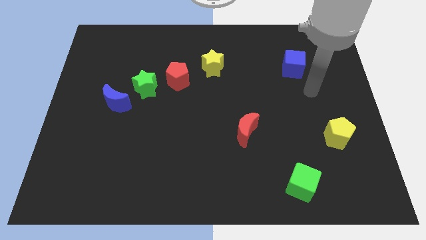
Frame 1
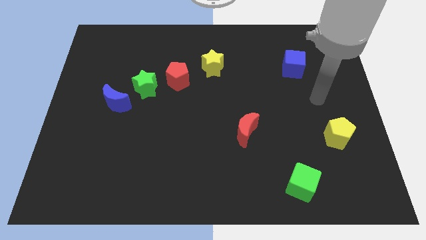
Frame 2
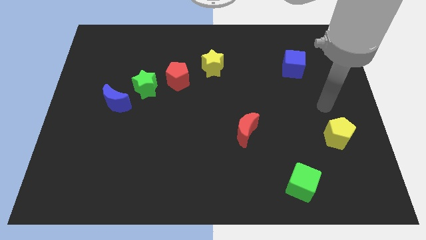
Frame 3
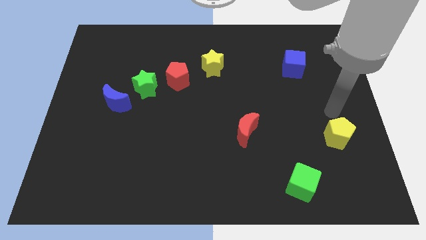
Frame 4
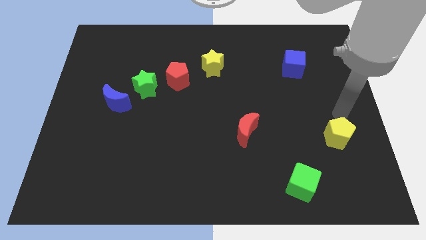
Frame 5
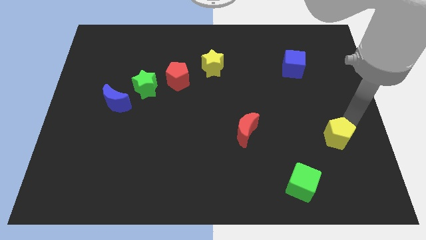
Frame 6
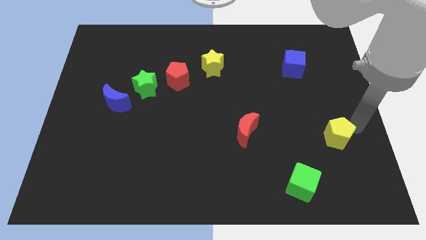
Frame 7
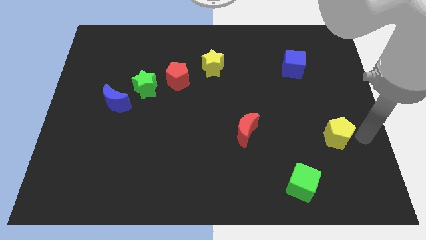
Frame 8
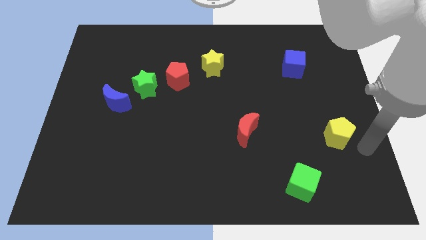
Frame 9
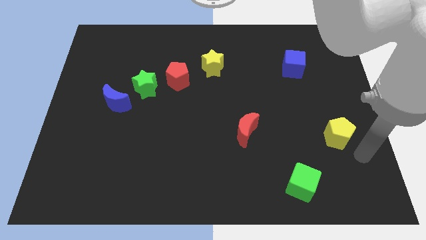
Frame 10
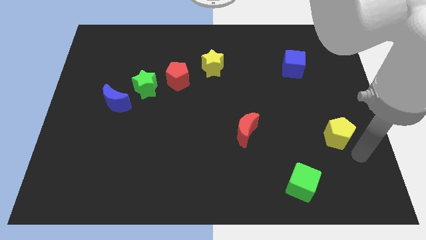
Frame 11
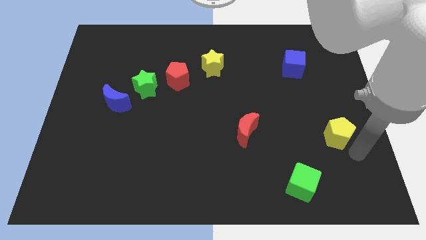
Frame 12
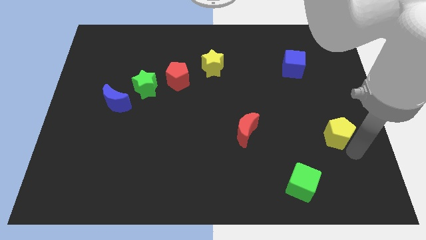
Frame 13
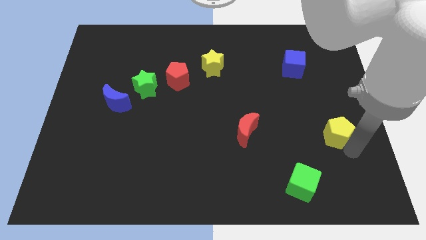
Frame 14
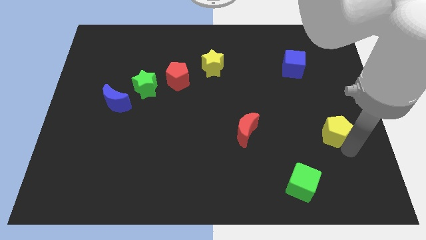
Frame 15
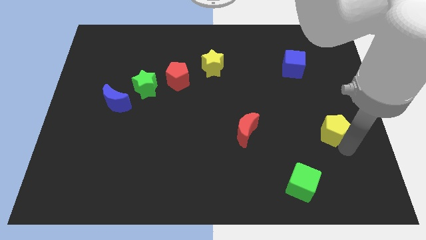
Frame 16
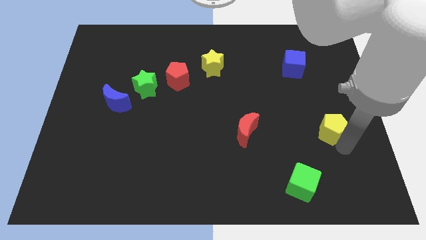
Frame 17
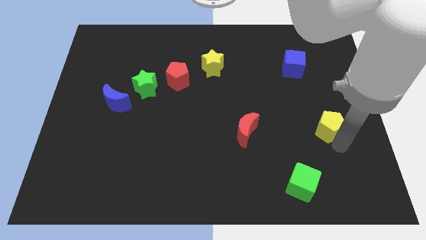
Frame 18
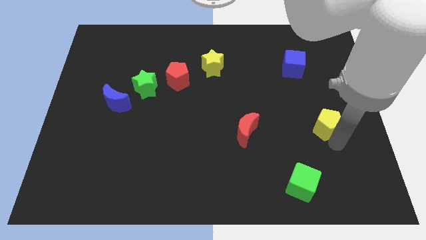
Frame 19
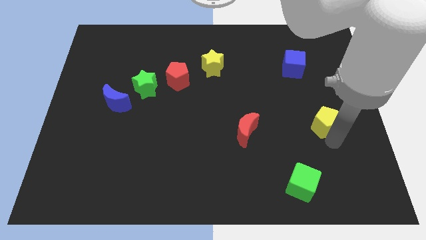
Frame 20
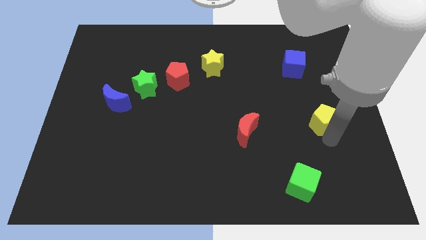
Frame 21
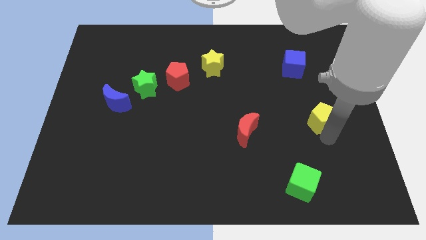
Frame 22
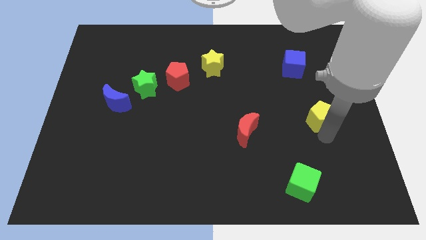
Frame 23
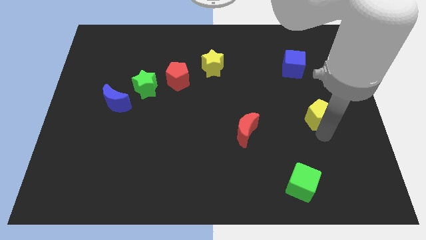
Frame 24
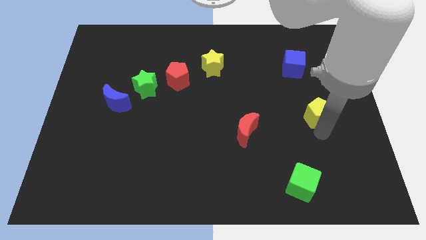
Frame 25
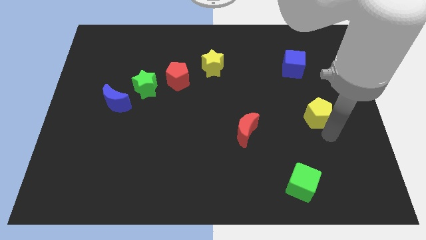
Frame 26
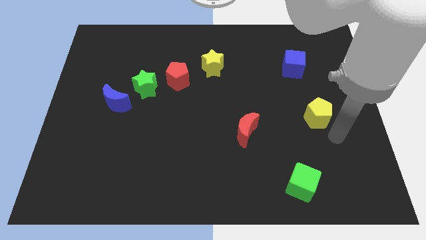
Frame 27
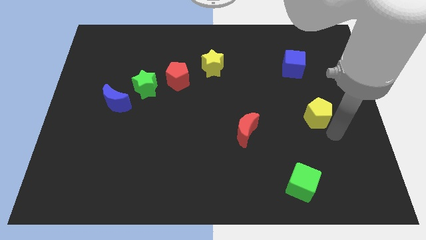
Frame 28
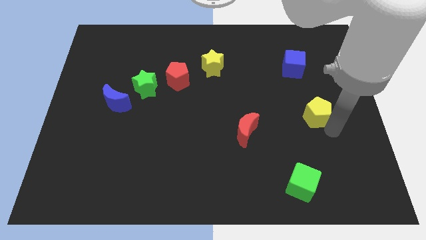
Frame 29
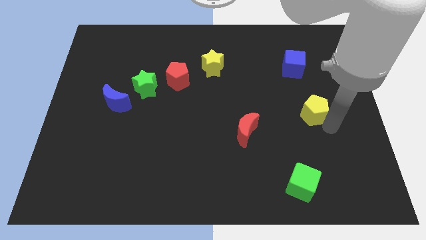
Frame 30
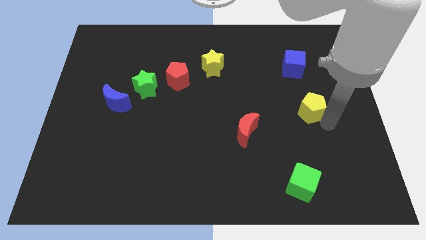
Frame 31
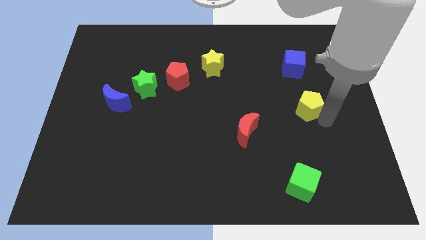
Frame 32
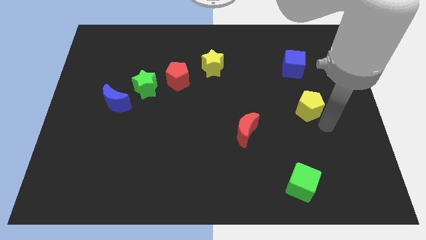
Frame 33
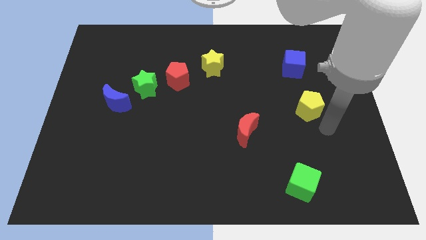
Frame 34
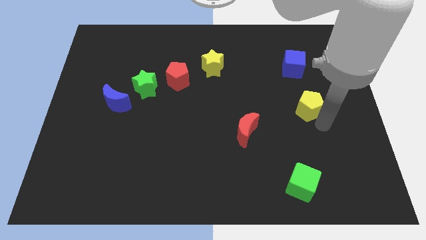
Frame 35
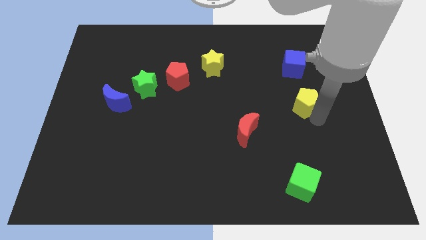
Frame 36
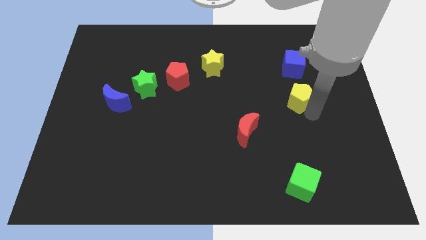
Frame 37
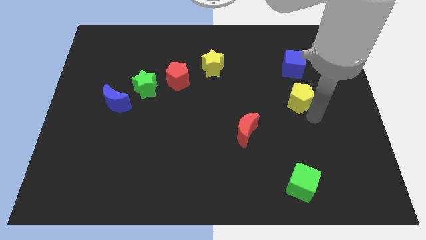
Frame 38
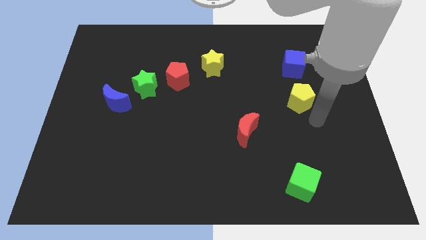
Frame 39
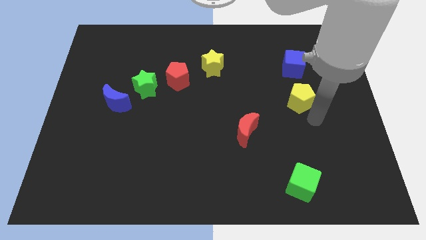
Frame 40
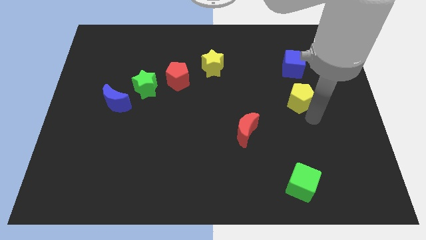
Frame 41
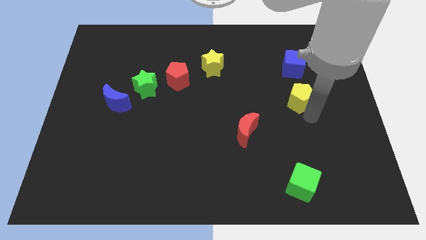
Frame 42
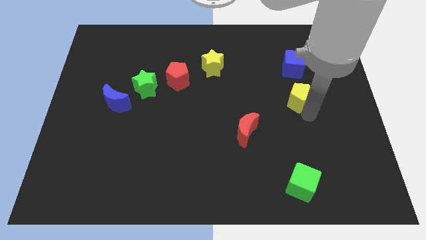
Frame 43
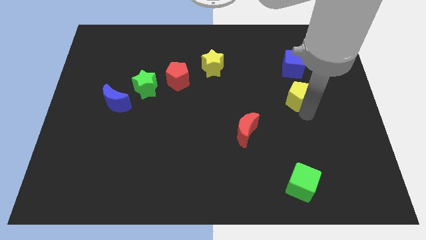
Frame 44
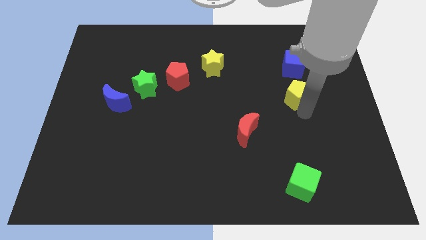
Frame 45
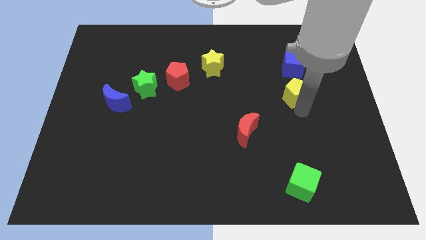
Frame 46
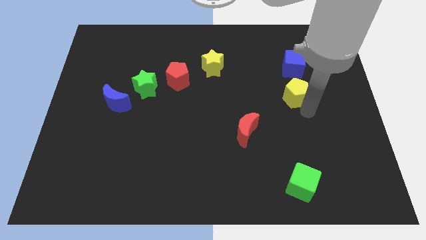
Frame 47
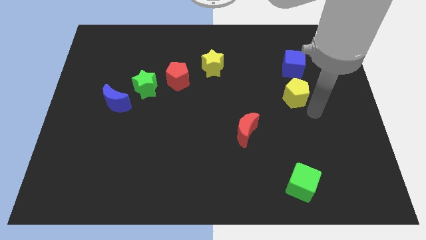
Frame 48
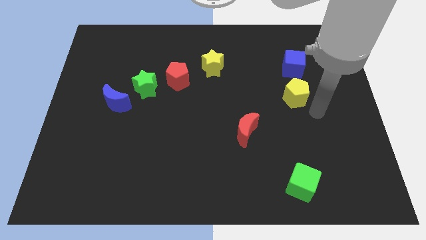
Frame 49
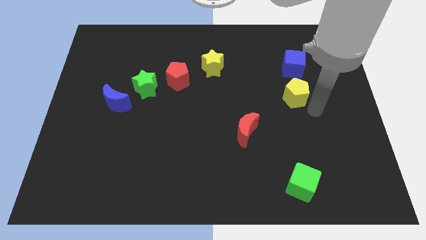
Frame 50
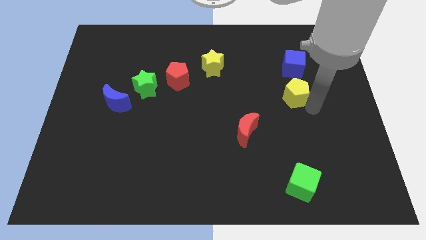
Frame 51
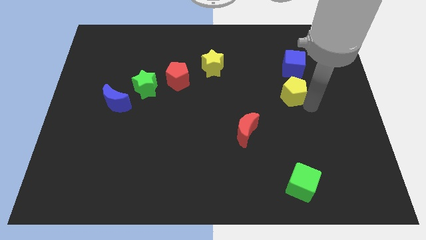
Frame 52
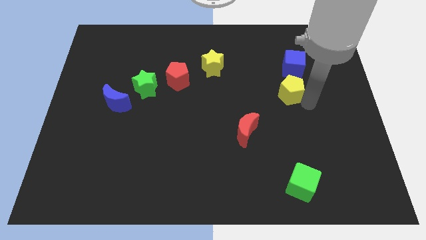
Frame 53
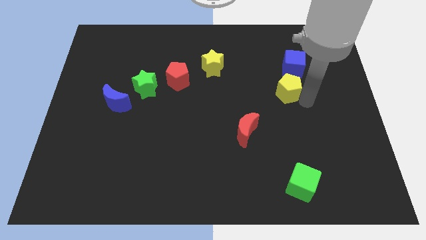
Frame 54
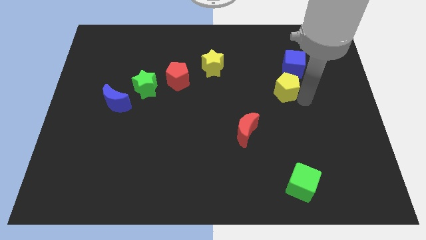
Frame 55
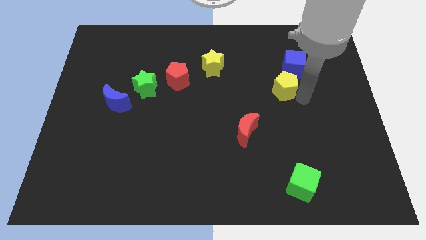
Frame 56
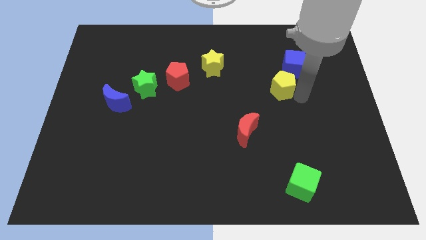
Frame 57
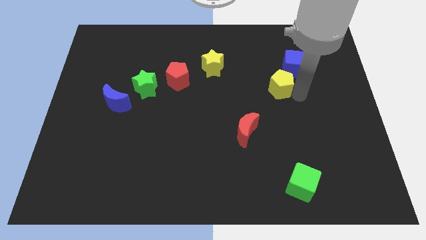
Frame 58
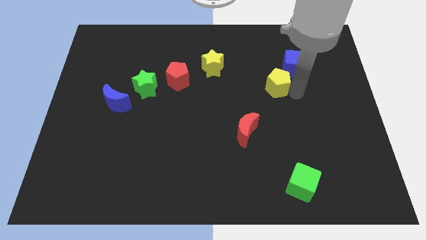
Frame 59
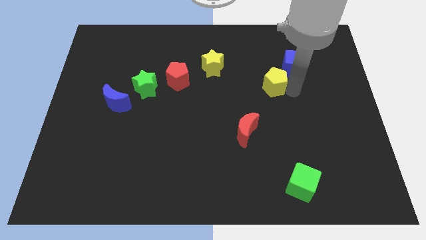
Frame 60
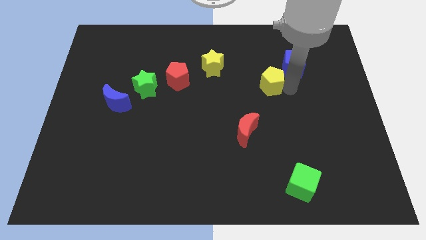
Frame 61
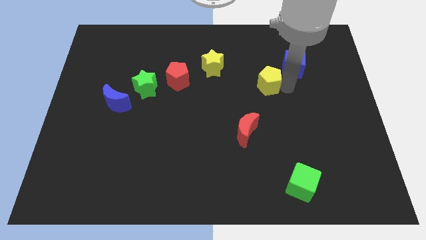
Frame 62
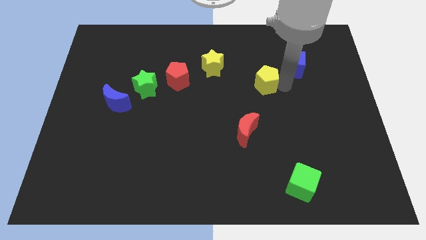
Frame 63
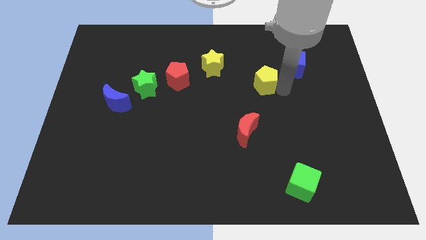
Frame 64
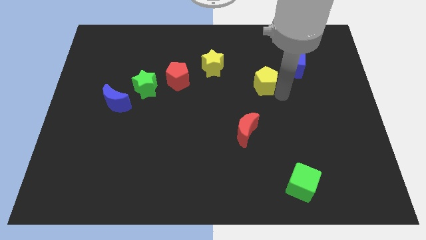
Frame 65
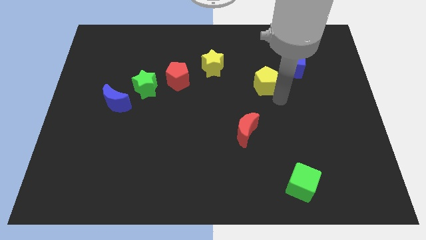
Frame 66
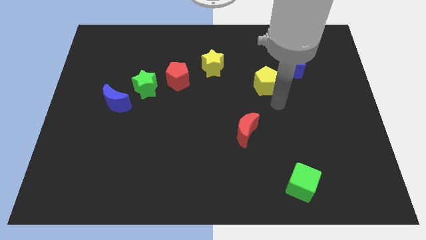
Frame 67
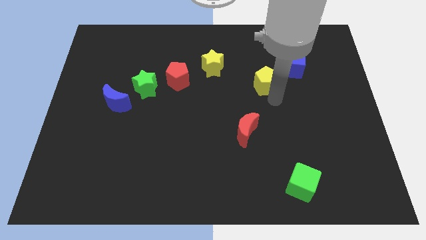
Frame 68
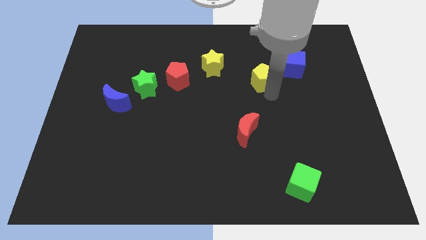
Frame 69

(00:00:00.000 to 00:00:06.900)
put the yellow pentagon to the left of the blue cube

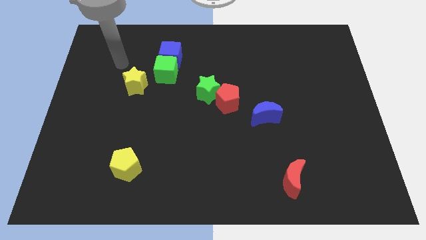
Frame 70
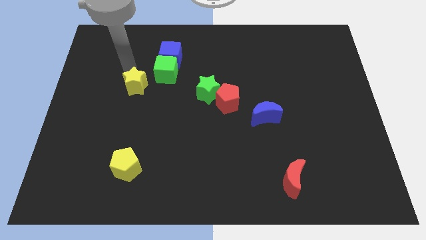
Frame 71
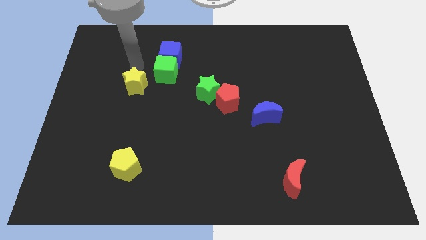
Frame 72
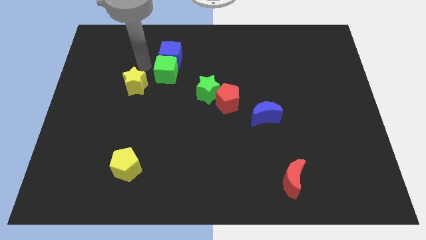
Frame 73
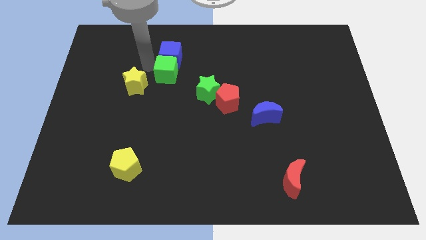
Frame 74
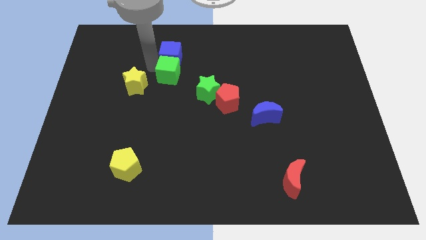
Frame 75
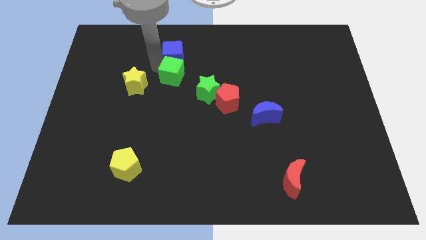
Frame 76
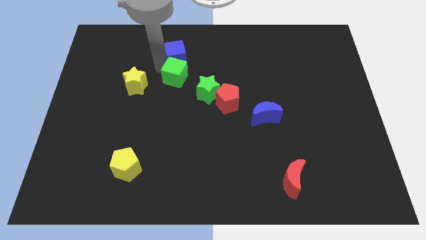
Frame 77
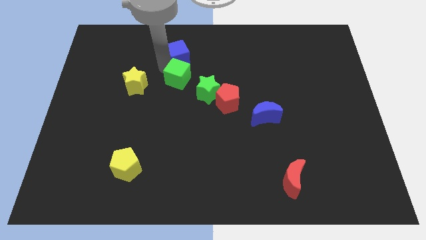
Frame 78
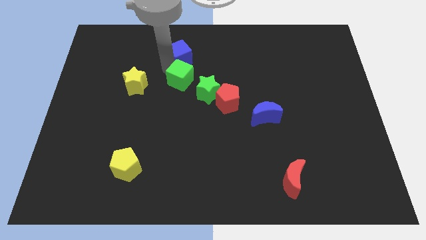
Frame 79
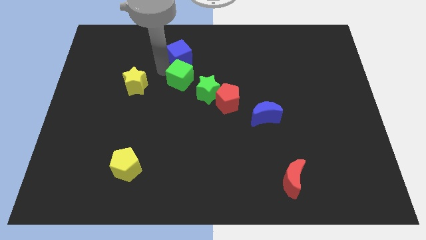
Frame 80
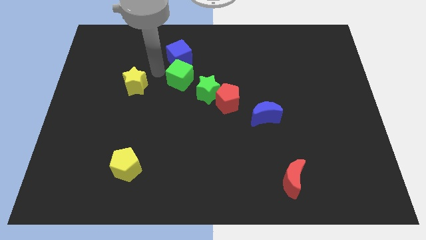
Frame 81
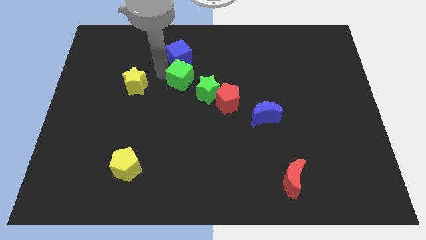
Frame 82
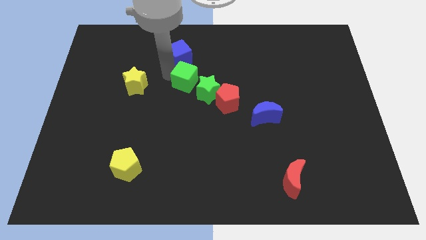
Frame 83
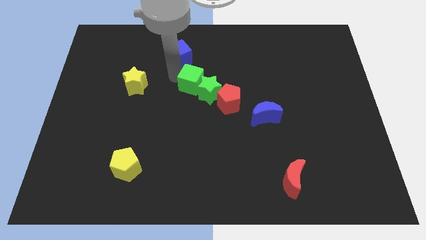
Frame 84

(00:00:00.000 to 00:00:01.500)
slide the green cube to the top left side of the red pentagon
